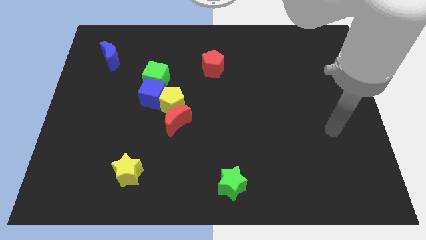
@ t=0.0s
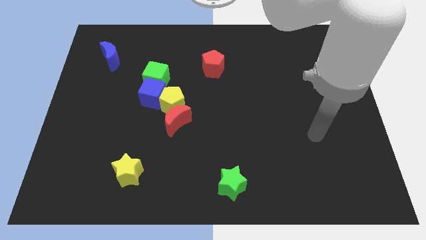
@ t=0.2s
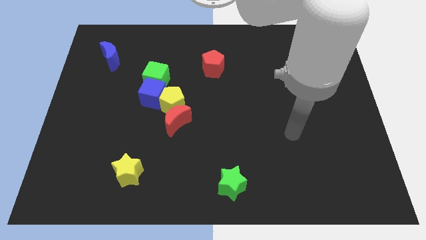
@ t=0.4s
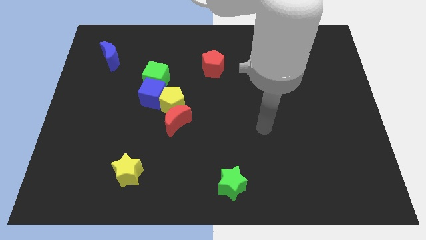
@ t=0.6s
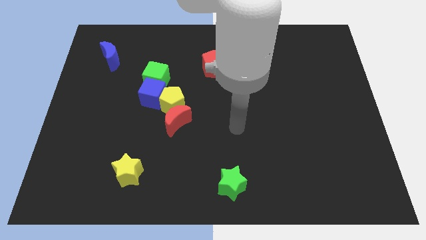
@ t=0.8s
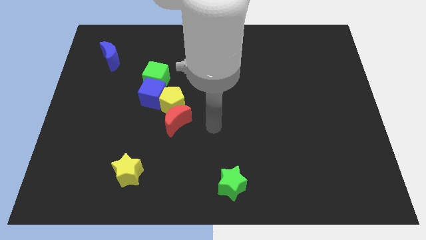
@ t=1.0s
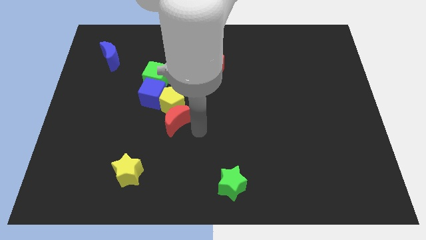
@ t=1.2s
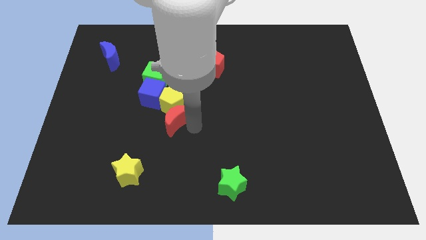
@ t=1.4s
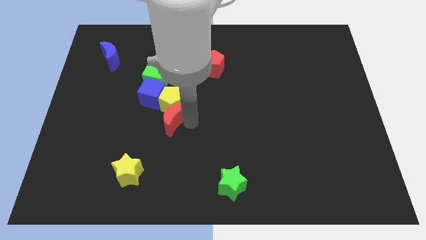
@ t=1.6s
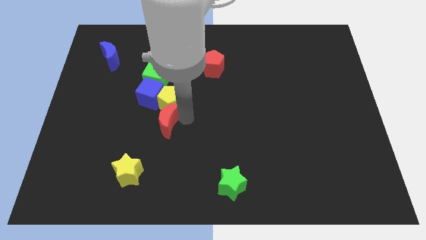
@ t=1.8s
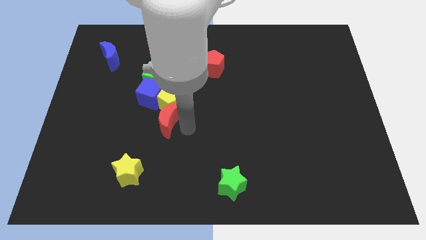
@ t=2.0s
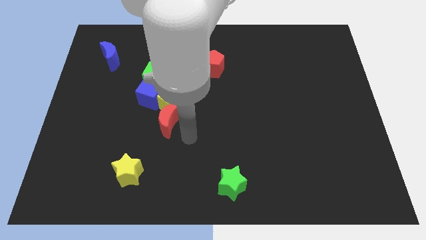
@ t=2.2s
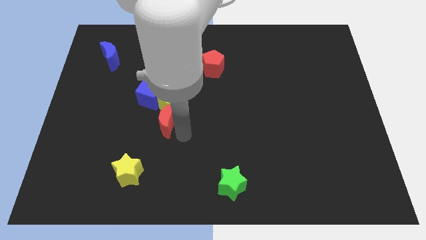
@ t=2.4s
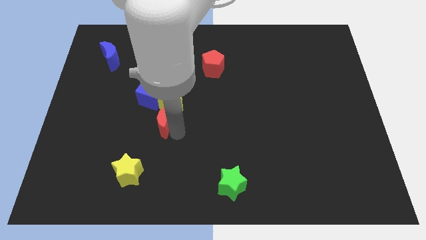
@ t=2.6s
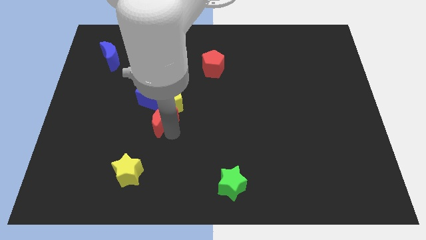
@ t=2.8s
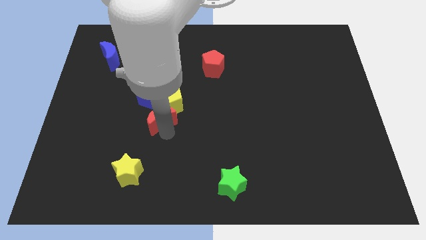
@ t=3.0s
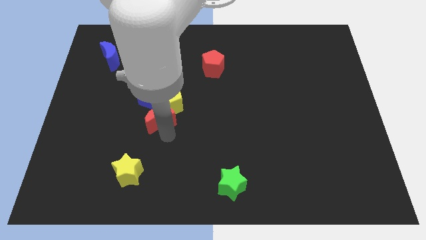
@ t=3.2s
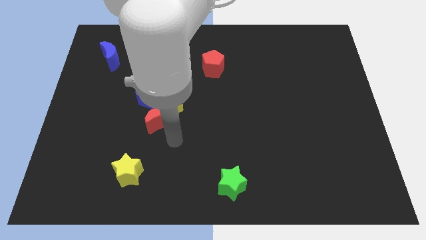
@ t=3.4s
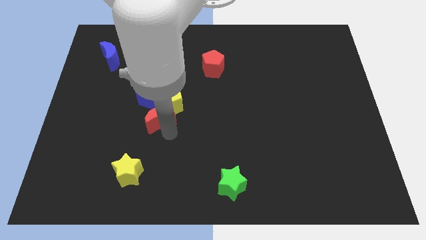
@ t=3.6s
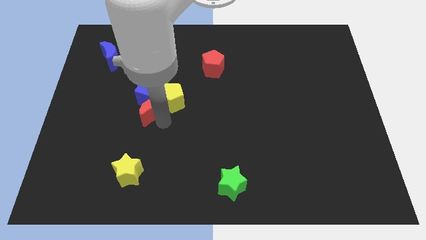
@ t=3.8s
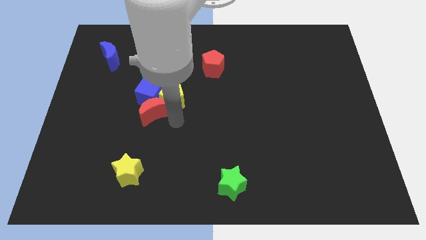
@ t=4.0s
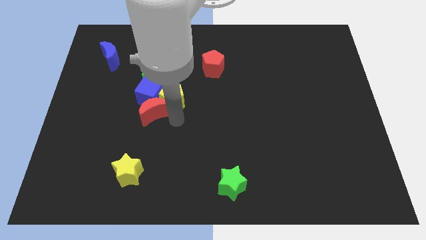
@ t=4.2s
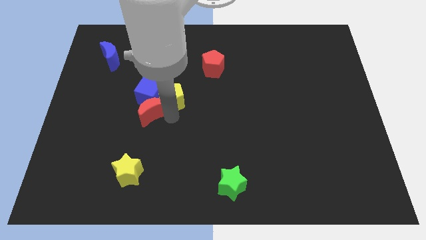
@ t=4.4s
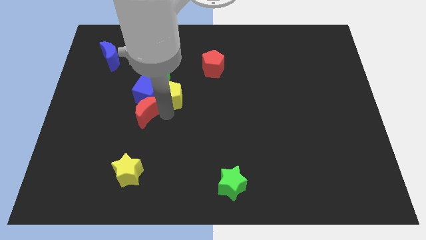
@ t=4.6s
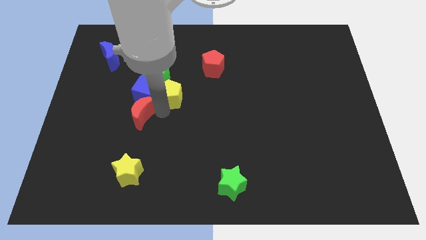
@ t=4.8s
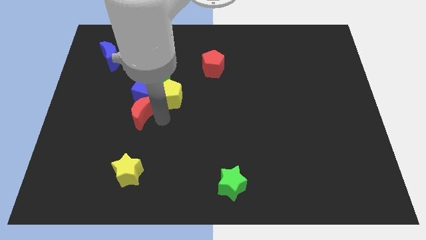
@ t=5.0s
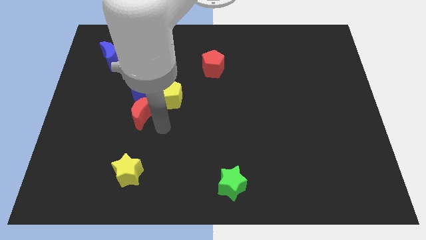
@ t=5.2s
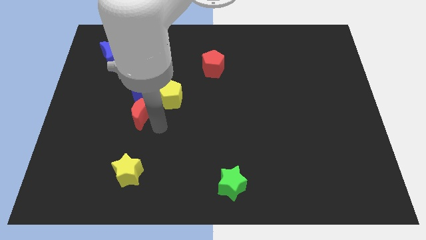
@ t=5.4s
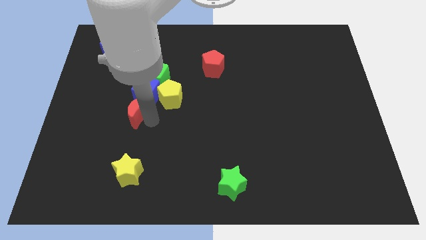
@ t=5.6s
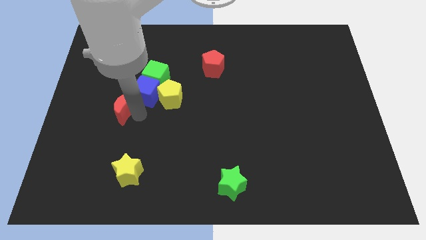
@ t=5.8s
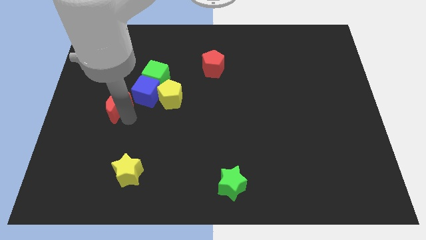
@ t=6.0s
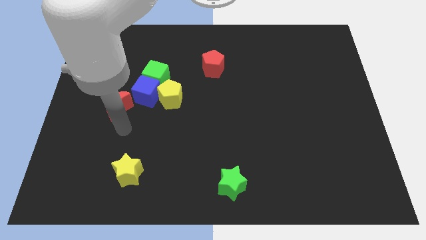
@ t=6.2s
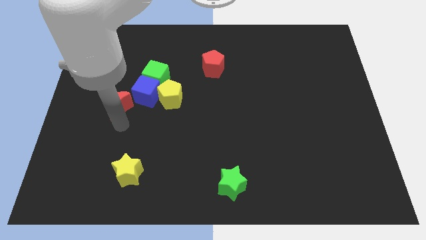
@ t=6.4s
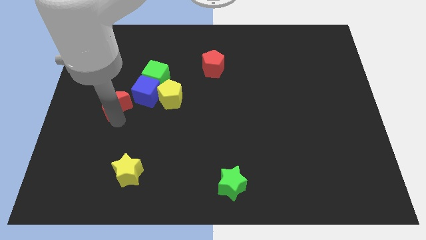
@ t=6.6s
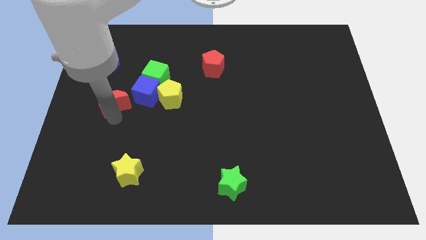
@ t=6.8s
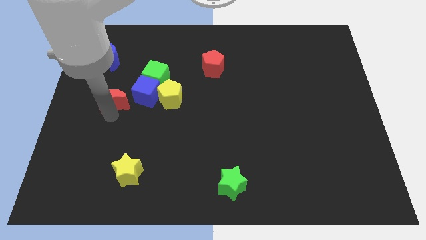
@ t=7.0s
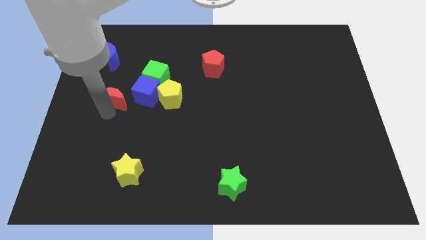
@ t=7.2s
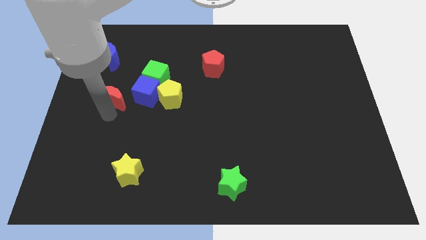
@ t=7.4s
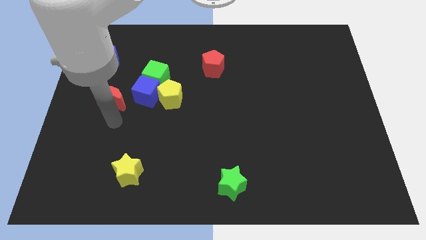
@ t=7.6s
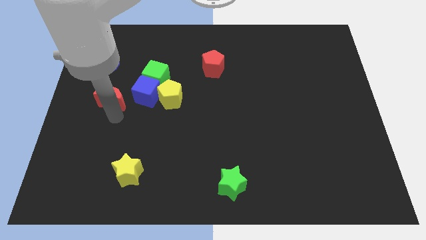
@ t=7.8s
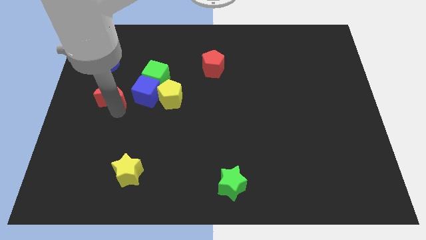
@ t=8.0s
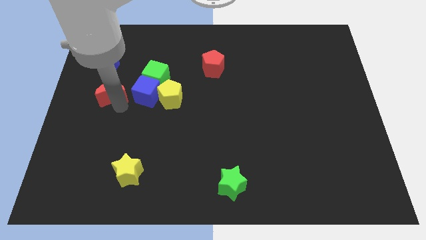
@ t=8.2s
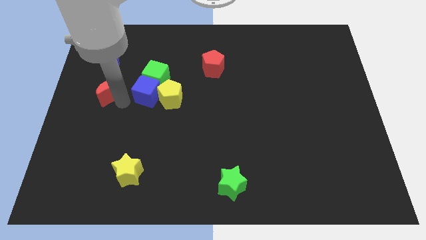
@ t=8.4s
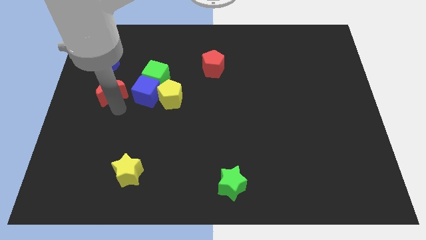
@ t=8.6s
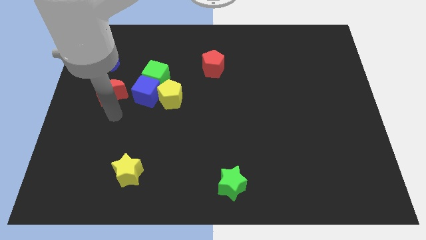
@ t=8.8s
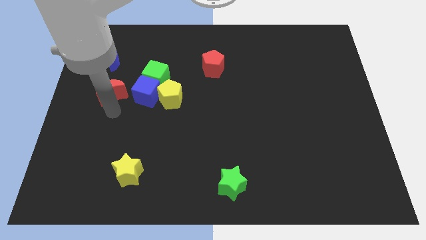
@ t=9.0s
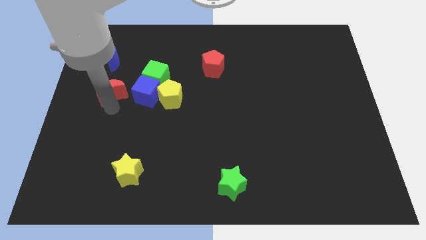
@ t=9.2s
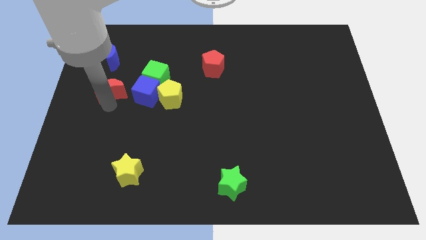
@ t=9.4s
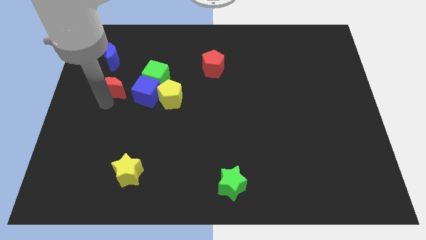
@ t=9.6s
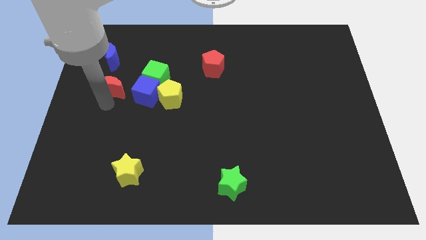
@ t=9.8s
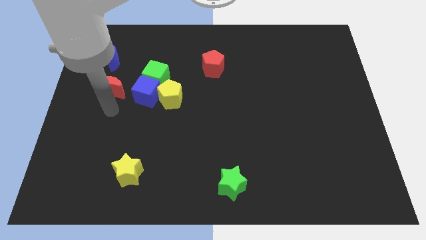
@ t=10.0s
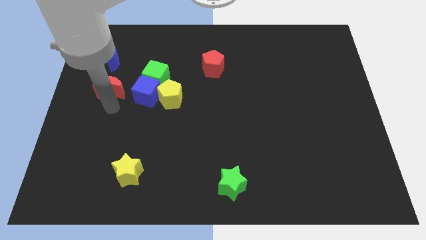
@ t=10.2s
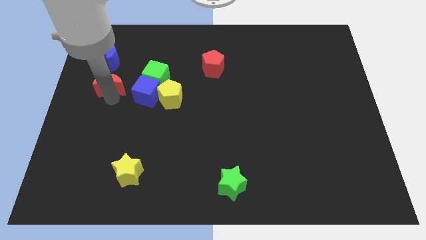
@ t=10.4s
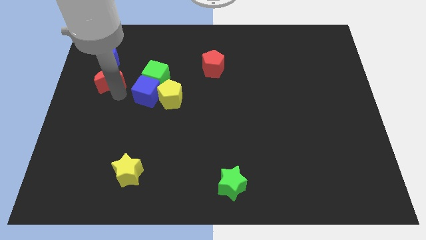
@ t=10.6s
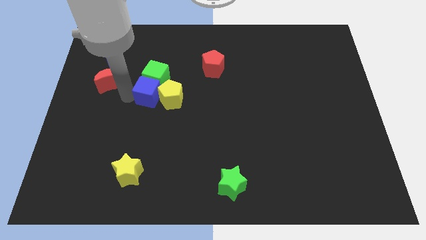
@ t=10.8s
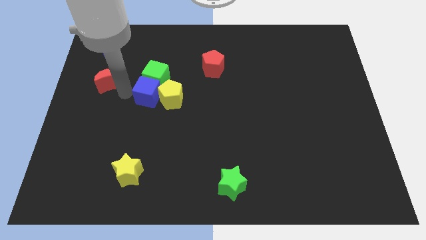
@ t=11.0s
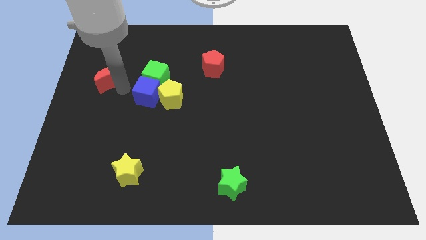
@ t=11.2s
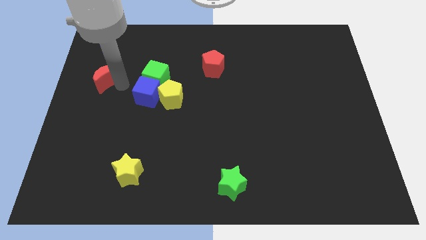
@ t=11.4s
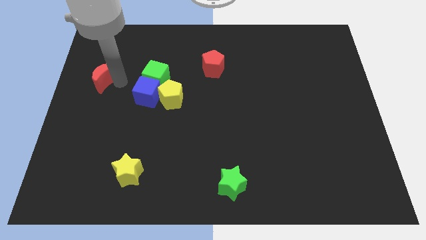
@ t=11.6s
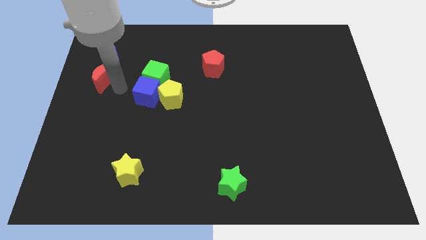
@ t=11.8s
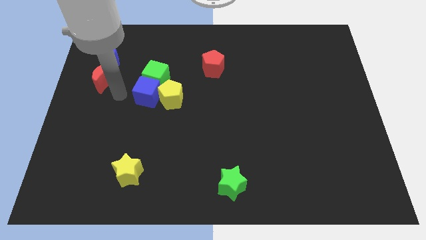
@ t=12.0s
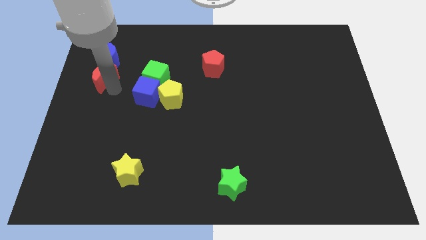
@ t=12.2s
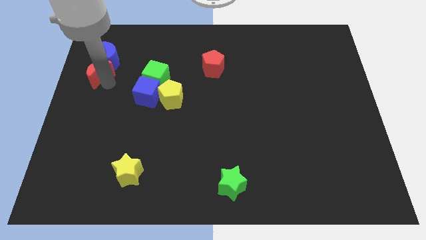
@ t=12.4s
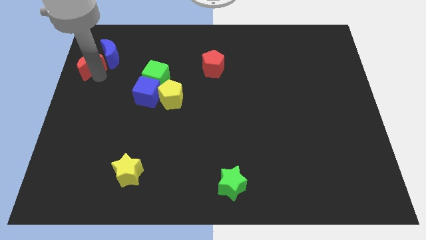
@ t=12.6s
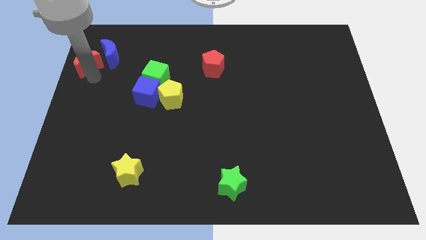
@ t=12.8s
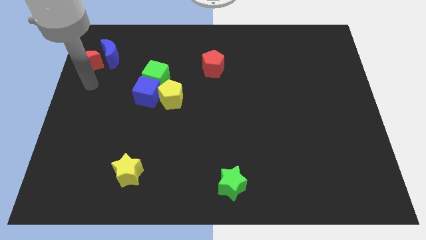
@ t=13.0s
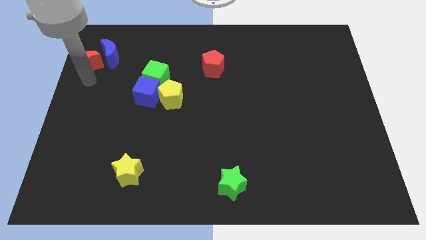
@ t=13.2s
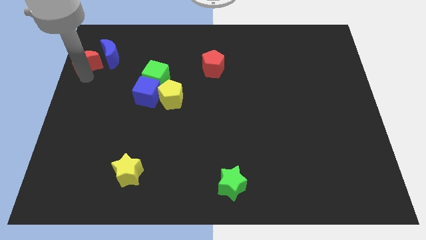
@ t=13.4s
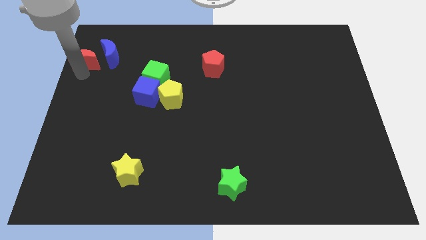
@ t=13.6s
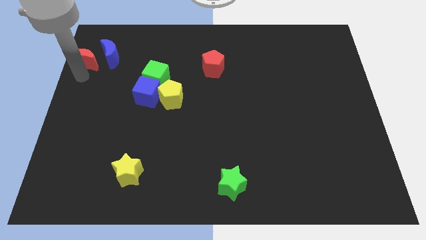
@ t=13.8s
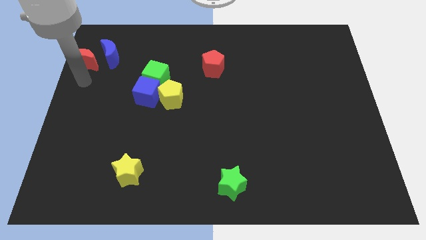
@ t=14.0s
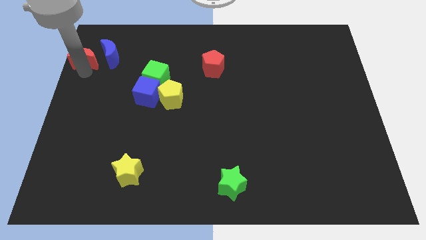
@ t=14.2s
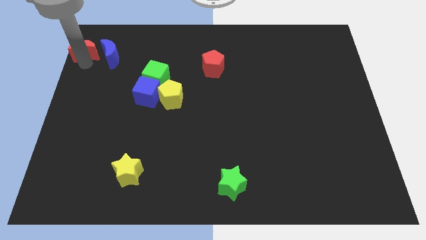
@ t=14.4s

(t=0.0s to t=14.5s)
slide the red moon to the top left of the board
